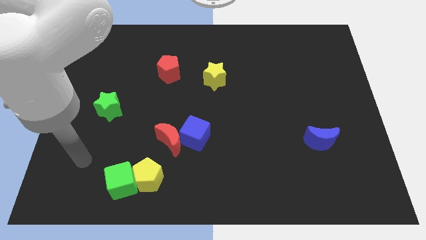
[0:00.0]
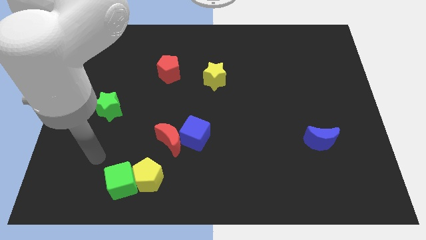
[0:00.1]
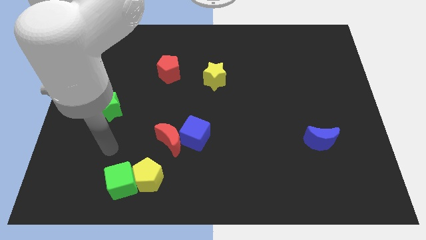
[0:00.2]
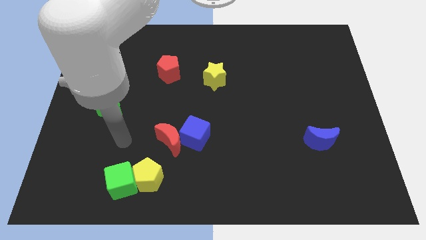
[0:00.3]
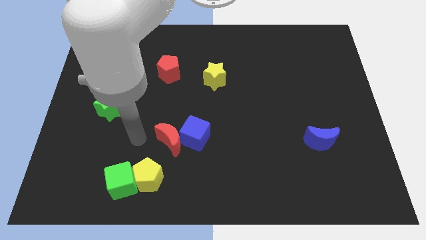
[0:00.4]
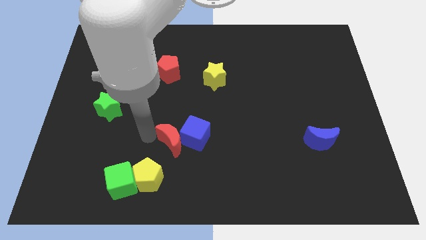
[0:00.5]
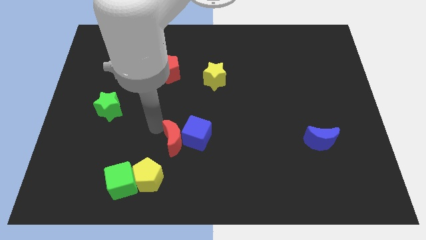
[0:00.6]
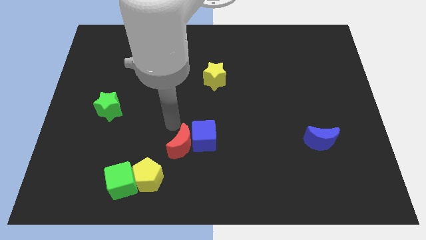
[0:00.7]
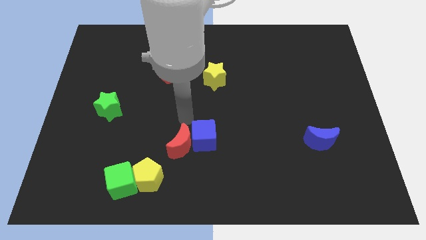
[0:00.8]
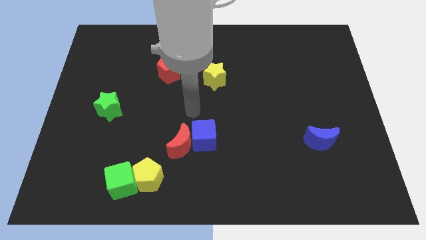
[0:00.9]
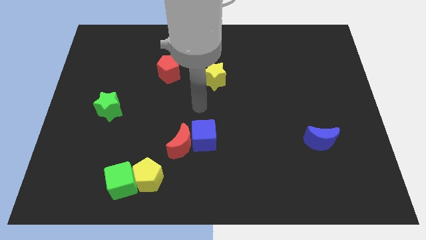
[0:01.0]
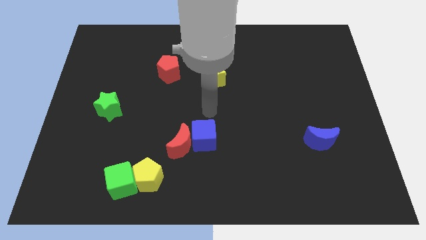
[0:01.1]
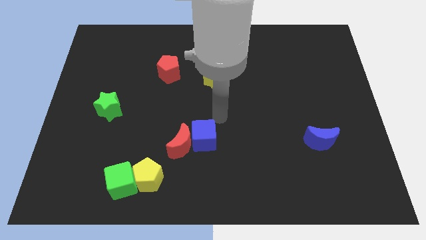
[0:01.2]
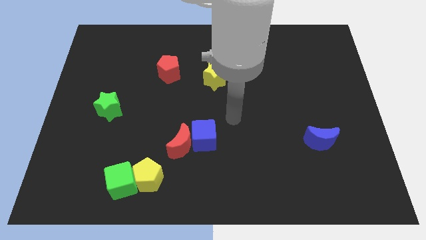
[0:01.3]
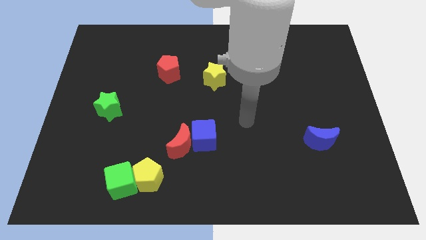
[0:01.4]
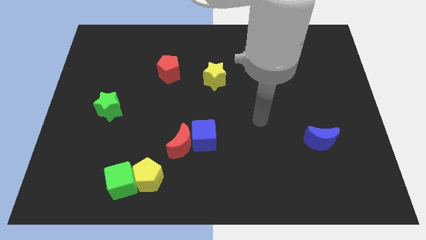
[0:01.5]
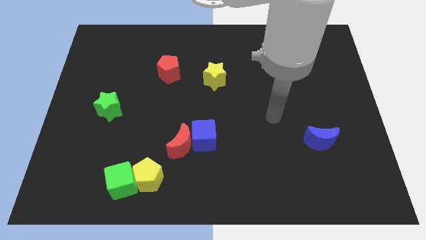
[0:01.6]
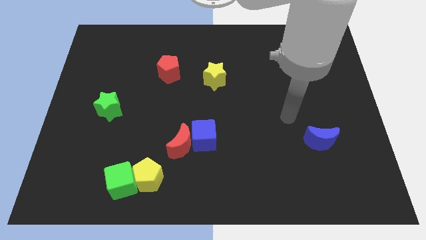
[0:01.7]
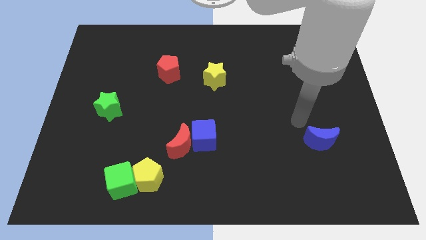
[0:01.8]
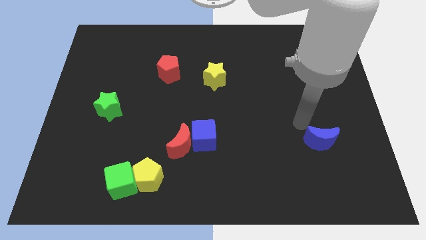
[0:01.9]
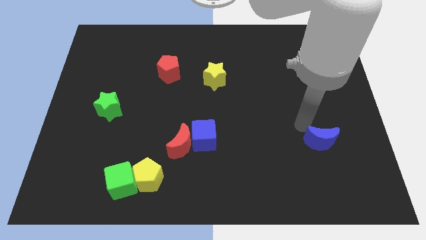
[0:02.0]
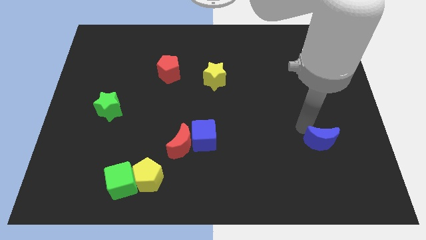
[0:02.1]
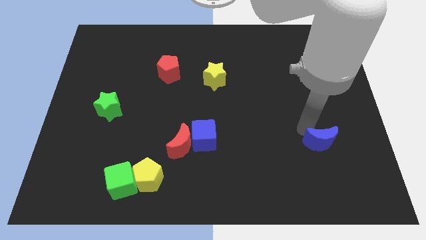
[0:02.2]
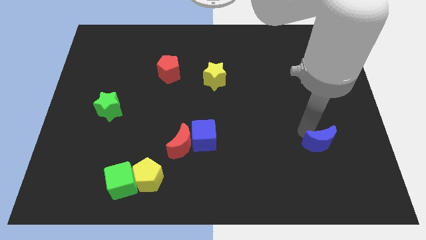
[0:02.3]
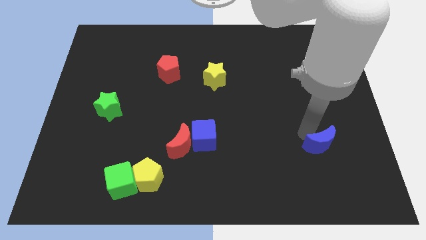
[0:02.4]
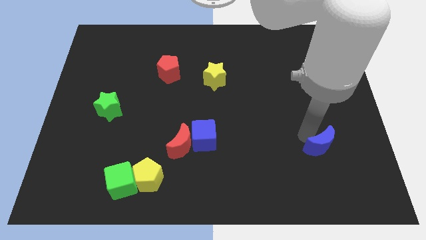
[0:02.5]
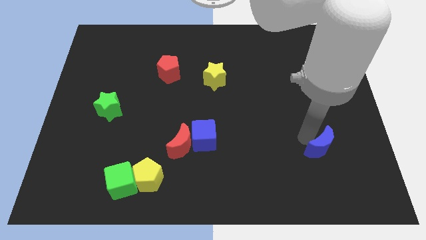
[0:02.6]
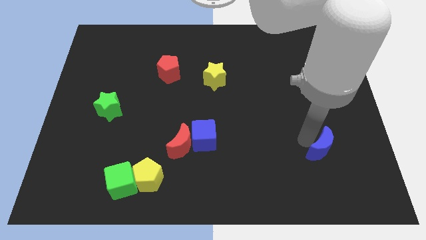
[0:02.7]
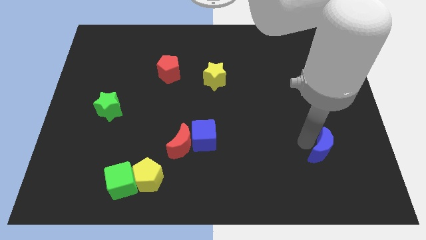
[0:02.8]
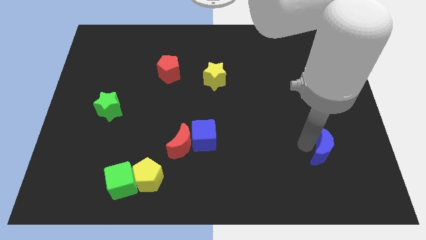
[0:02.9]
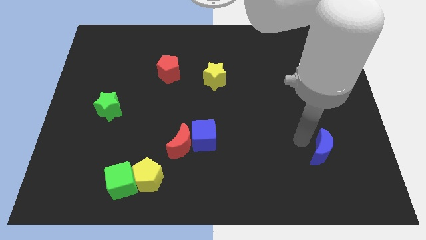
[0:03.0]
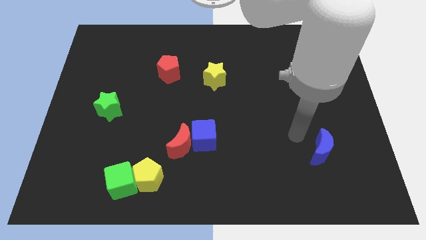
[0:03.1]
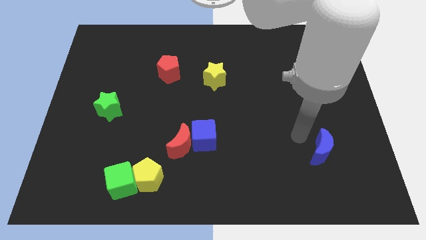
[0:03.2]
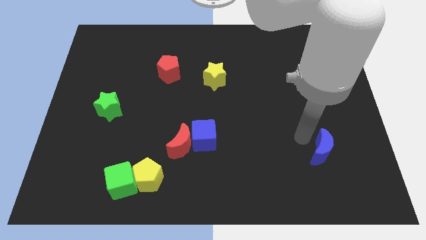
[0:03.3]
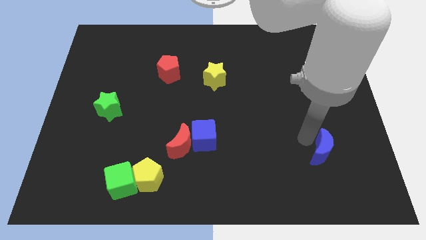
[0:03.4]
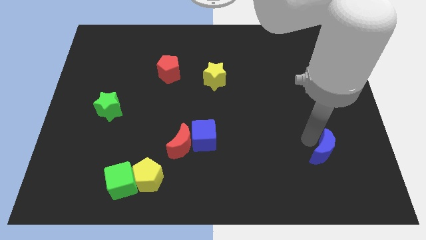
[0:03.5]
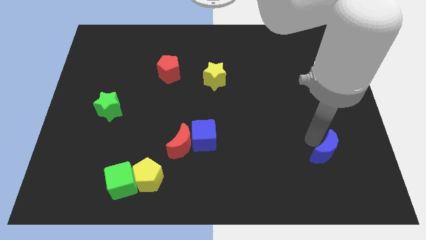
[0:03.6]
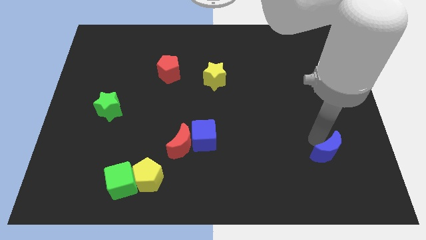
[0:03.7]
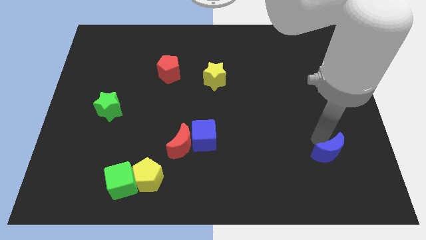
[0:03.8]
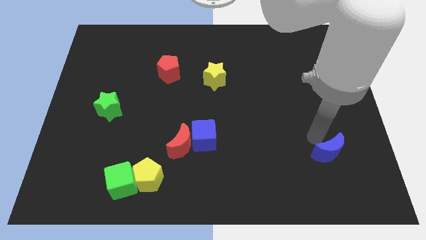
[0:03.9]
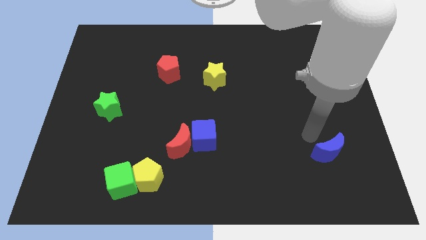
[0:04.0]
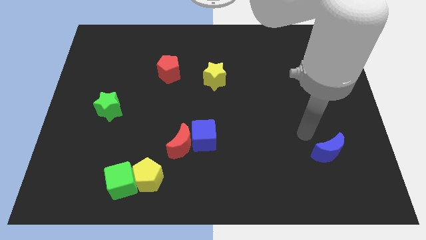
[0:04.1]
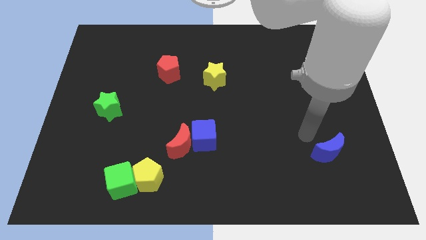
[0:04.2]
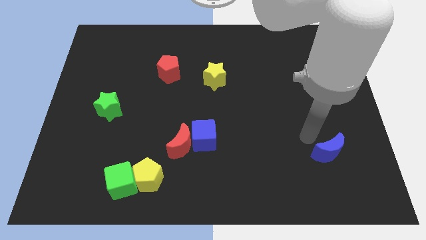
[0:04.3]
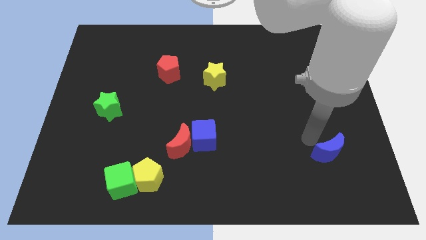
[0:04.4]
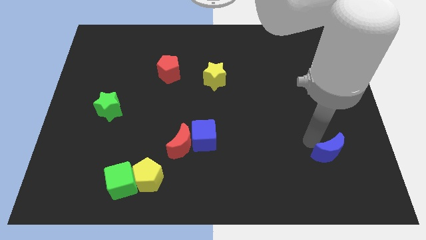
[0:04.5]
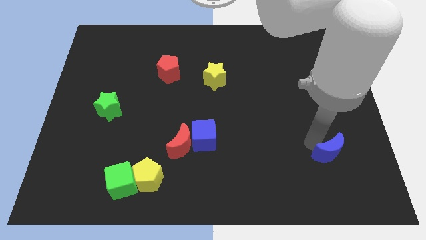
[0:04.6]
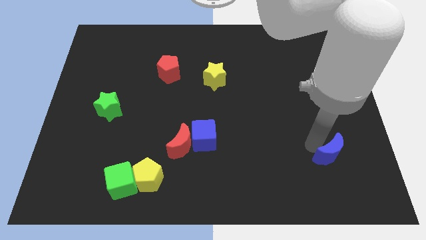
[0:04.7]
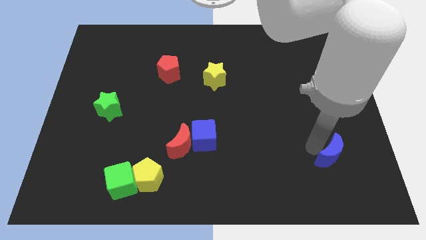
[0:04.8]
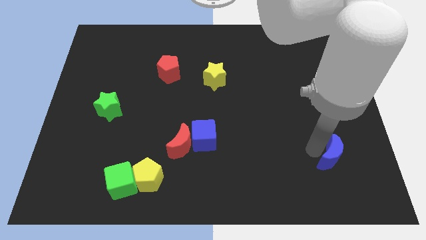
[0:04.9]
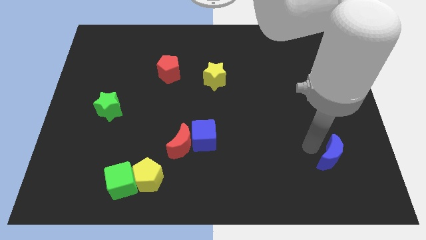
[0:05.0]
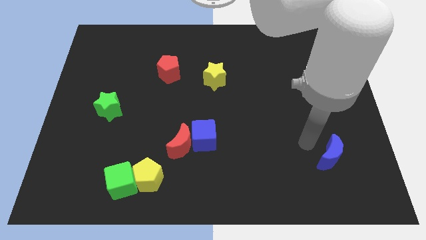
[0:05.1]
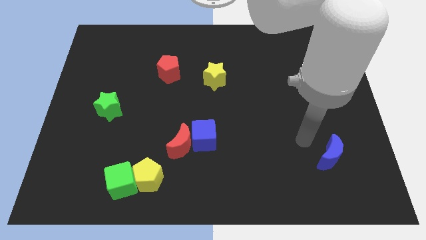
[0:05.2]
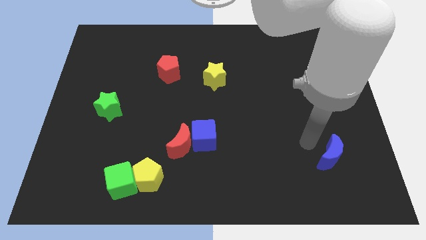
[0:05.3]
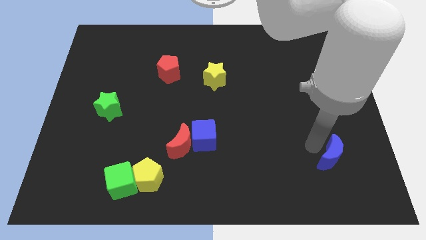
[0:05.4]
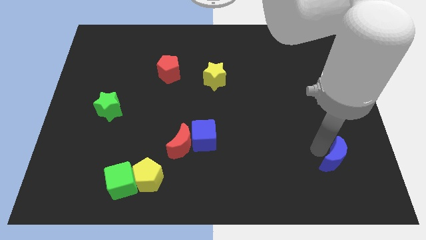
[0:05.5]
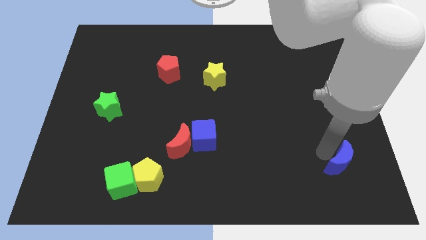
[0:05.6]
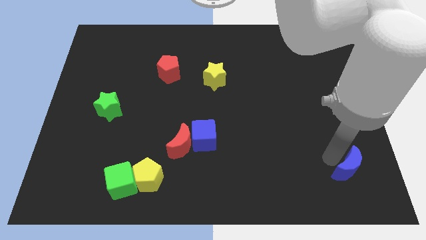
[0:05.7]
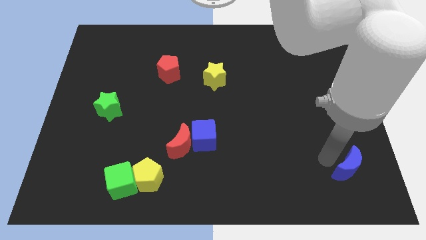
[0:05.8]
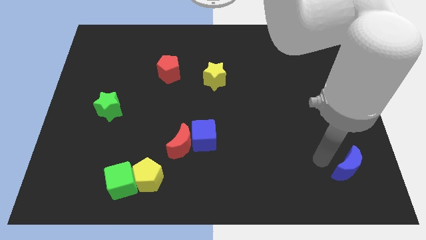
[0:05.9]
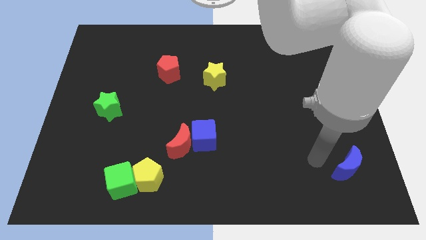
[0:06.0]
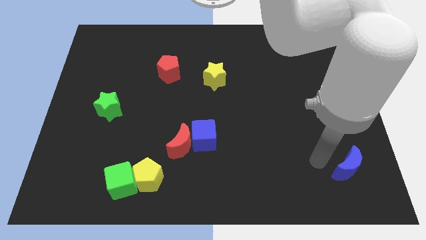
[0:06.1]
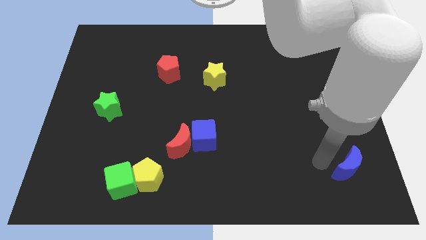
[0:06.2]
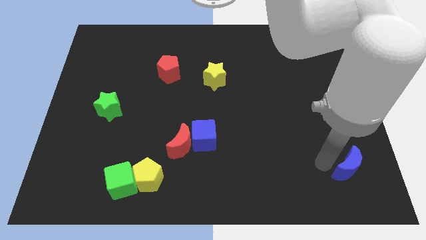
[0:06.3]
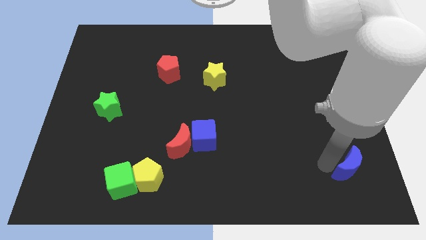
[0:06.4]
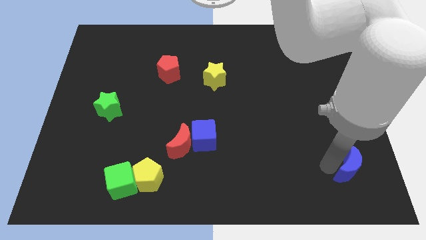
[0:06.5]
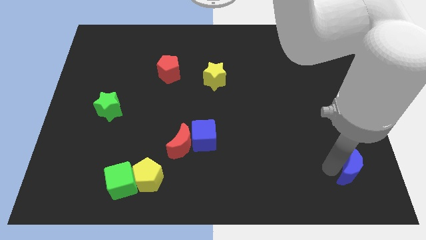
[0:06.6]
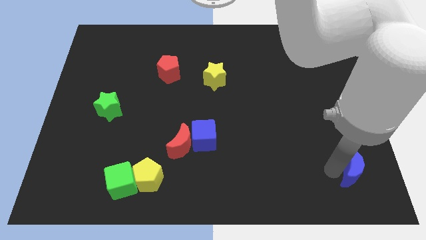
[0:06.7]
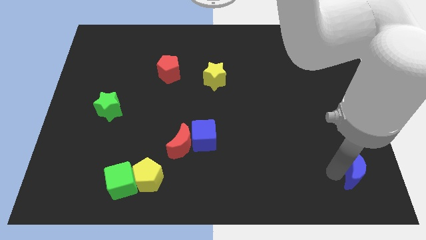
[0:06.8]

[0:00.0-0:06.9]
push the blue moon to the bottom right
